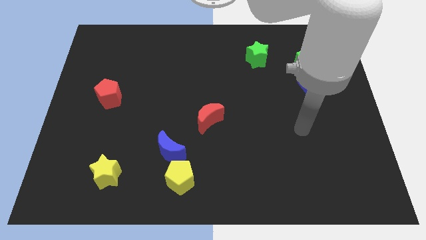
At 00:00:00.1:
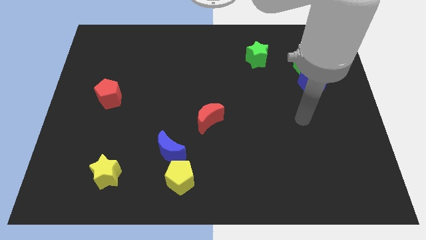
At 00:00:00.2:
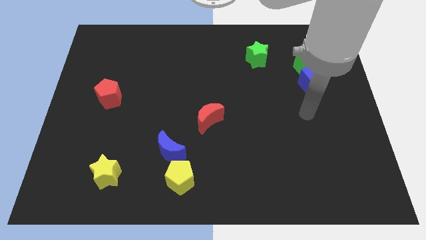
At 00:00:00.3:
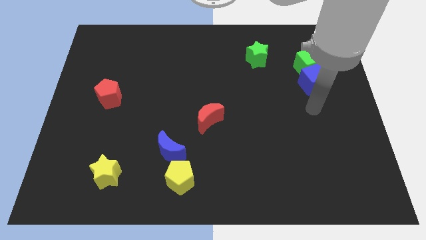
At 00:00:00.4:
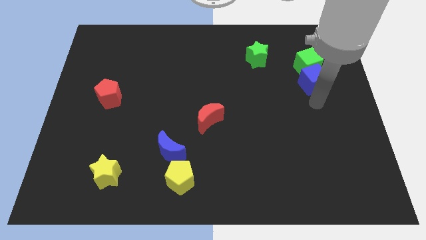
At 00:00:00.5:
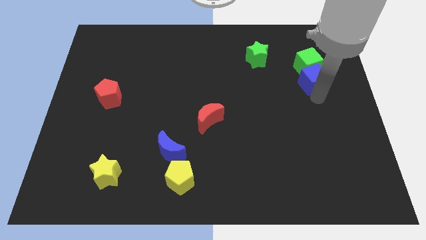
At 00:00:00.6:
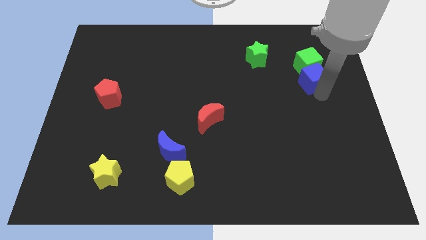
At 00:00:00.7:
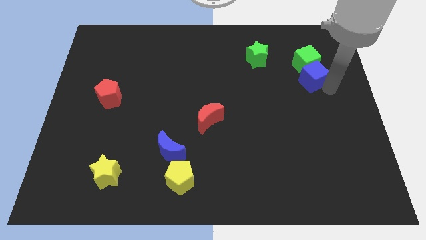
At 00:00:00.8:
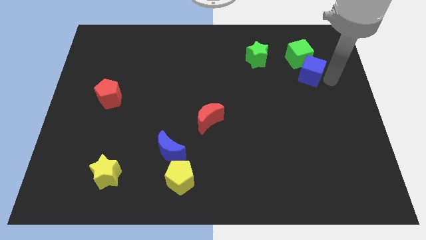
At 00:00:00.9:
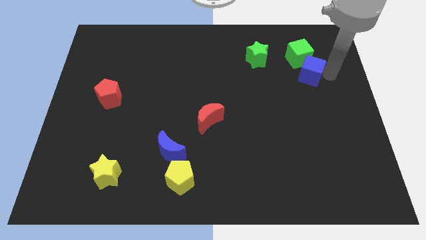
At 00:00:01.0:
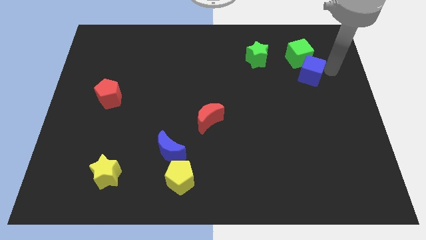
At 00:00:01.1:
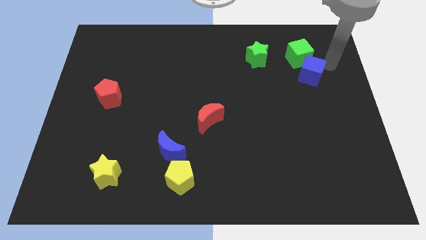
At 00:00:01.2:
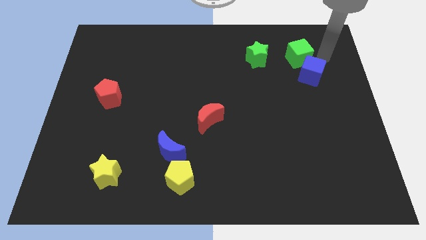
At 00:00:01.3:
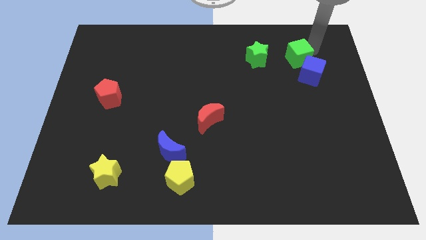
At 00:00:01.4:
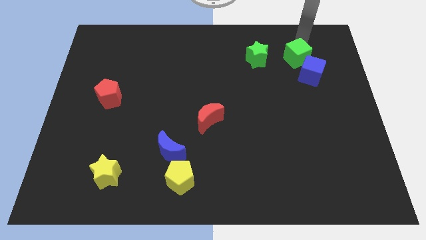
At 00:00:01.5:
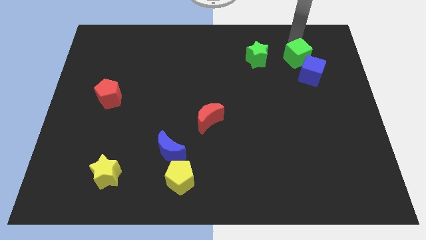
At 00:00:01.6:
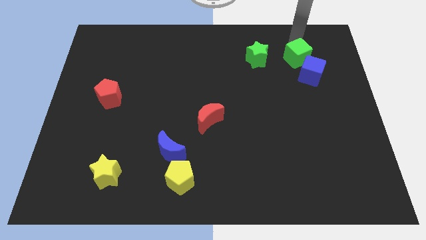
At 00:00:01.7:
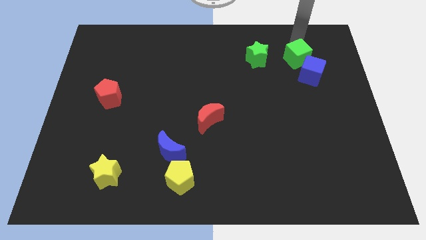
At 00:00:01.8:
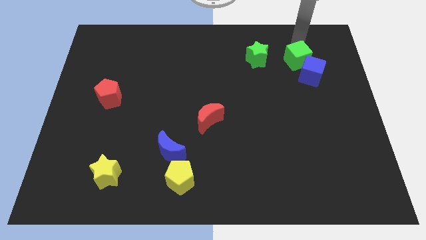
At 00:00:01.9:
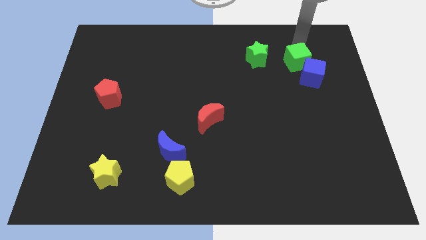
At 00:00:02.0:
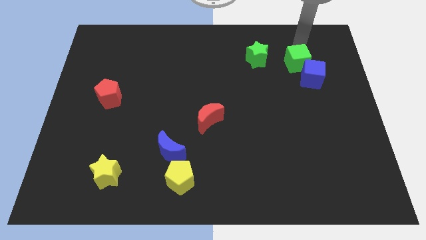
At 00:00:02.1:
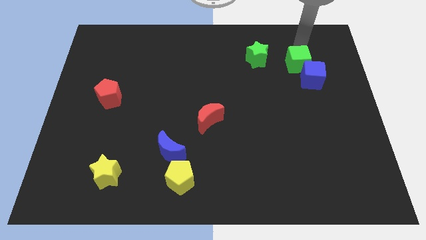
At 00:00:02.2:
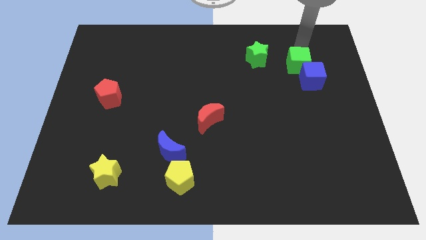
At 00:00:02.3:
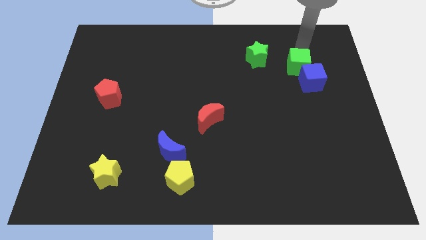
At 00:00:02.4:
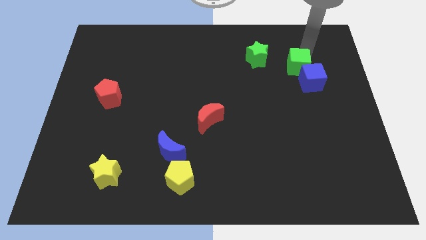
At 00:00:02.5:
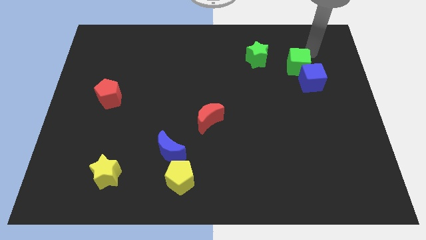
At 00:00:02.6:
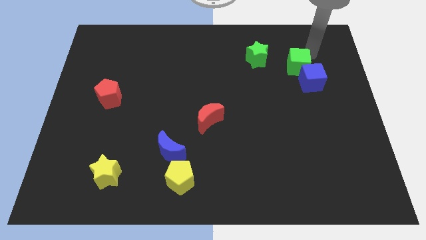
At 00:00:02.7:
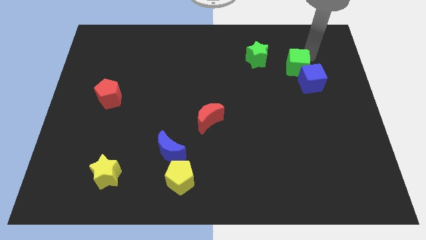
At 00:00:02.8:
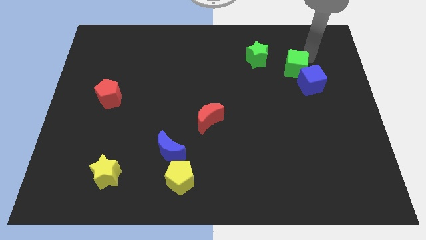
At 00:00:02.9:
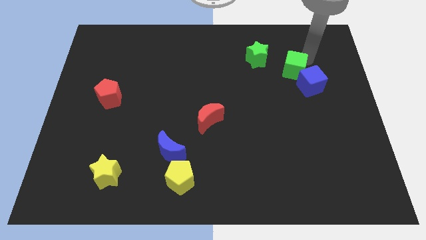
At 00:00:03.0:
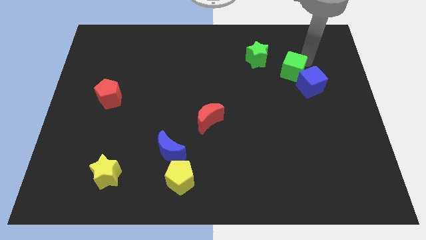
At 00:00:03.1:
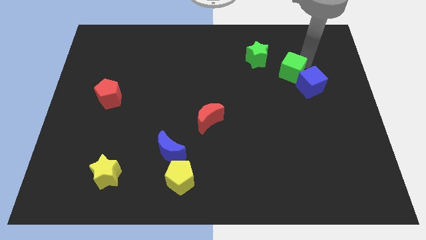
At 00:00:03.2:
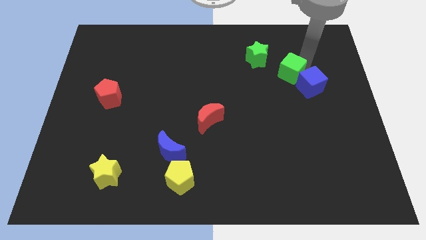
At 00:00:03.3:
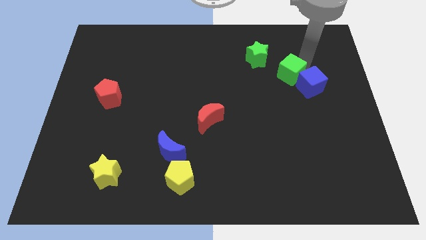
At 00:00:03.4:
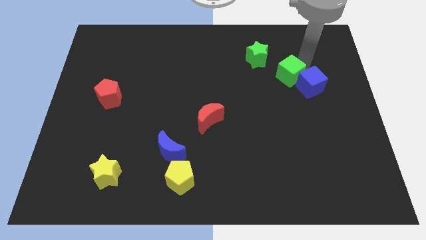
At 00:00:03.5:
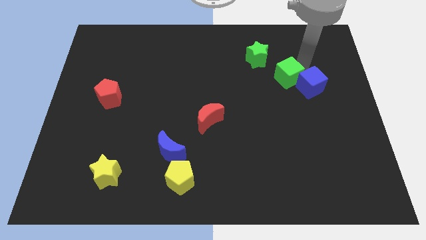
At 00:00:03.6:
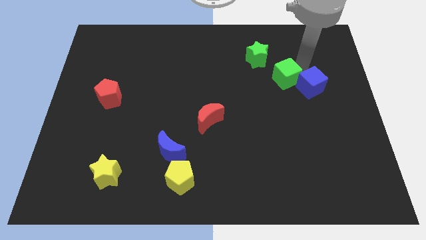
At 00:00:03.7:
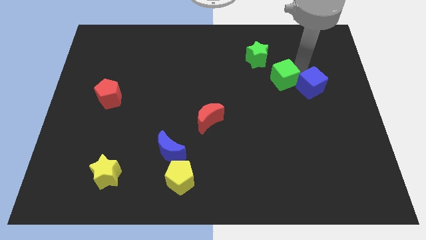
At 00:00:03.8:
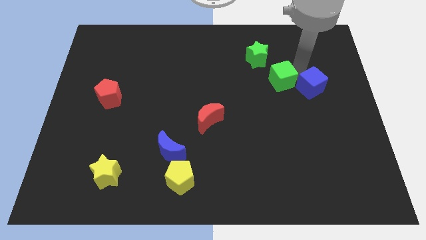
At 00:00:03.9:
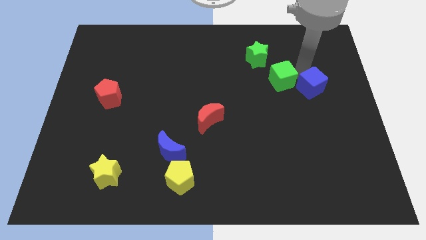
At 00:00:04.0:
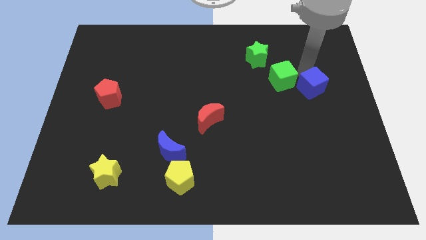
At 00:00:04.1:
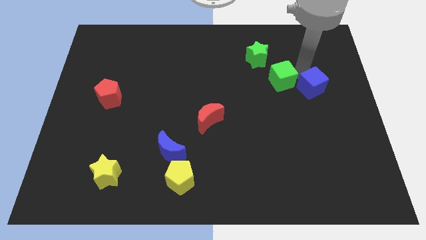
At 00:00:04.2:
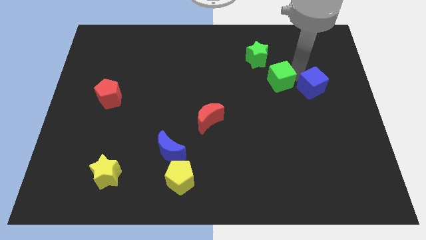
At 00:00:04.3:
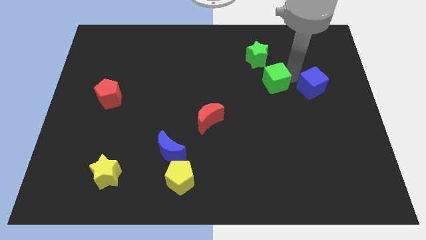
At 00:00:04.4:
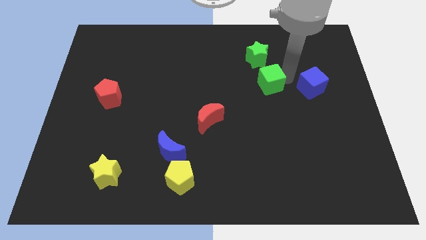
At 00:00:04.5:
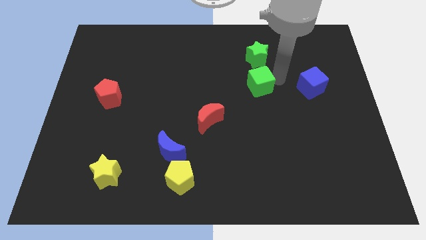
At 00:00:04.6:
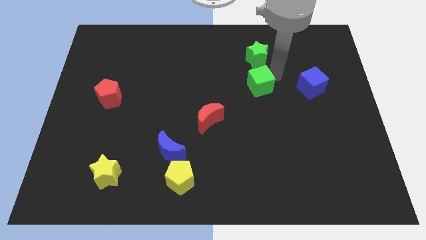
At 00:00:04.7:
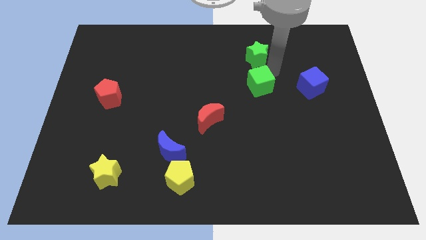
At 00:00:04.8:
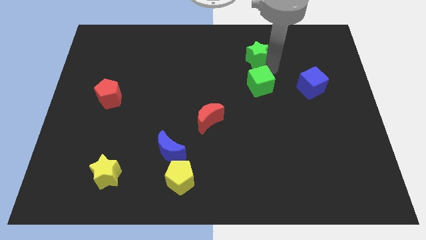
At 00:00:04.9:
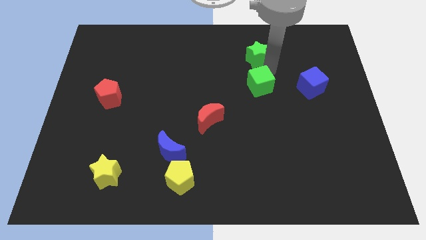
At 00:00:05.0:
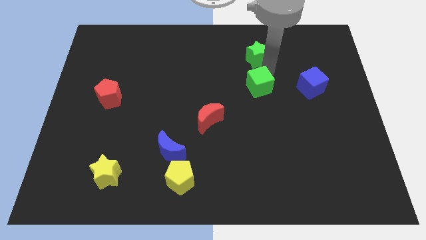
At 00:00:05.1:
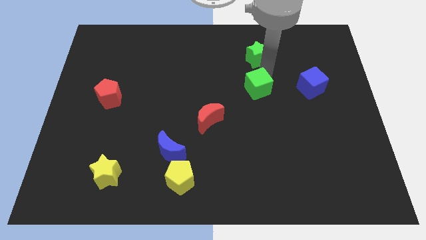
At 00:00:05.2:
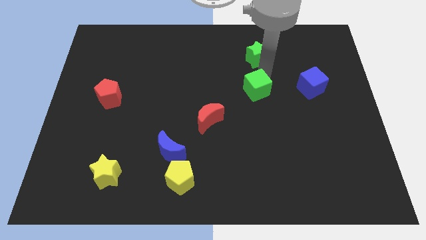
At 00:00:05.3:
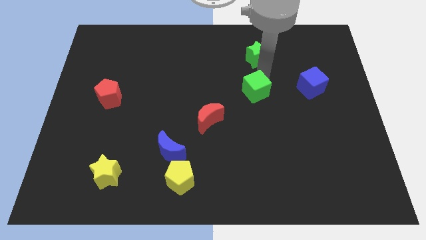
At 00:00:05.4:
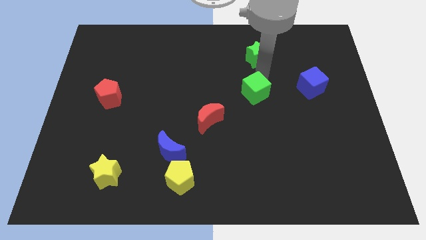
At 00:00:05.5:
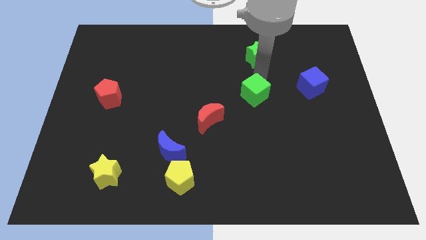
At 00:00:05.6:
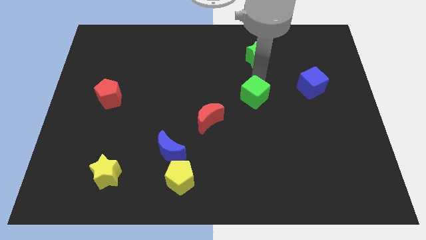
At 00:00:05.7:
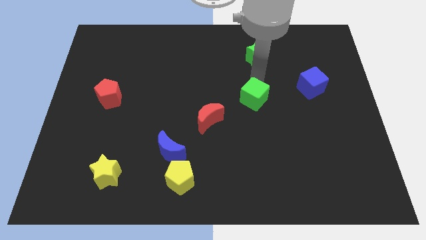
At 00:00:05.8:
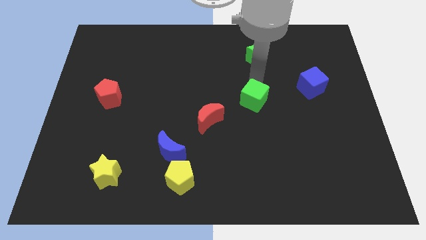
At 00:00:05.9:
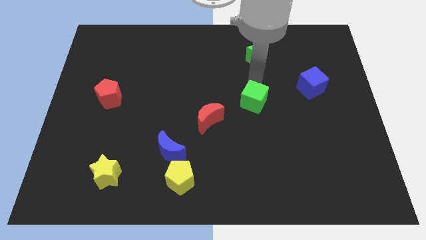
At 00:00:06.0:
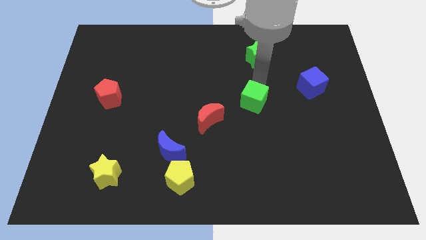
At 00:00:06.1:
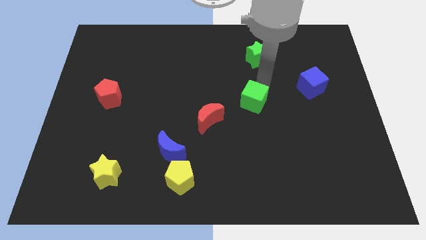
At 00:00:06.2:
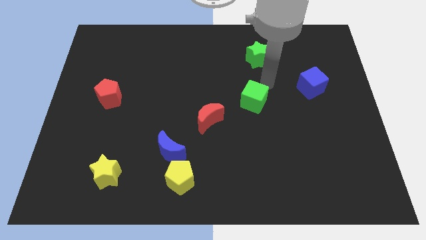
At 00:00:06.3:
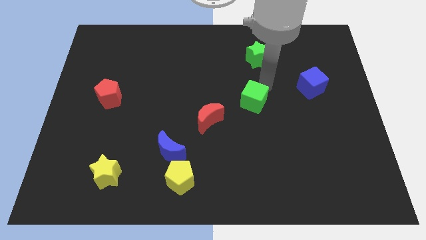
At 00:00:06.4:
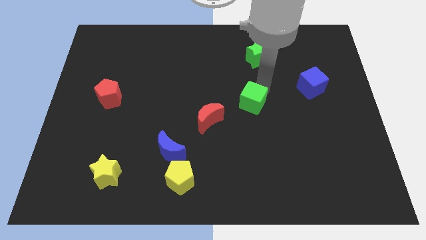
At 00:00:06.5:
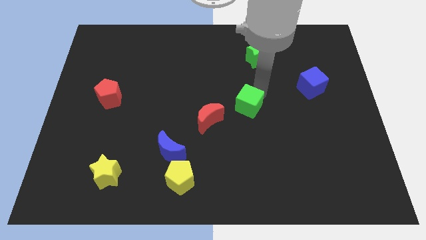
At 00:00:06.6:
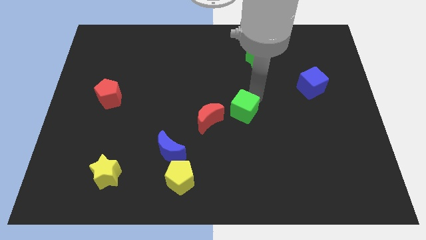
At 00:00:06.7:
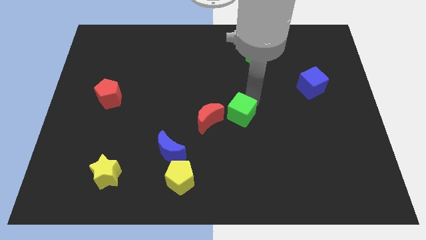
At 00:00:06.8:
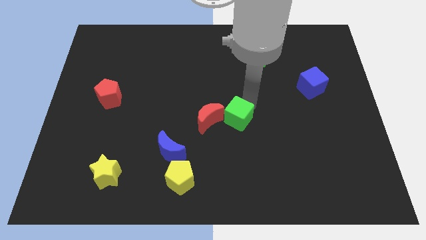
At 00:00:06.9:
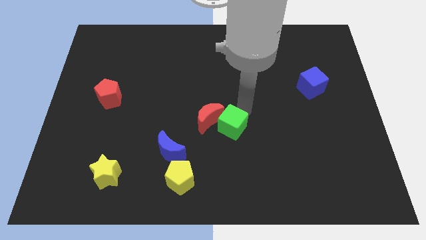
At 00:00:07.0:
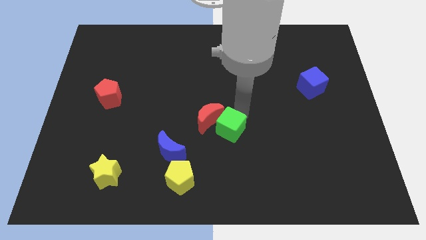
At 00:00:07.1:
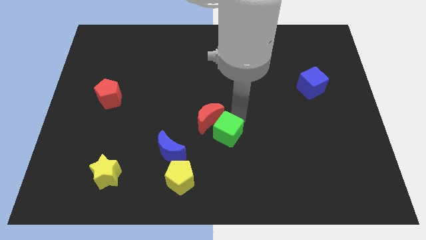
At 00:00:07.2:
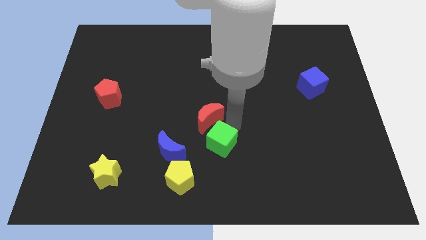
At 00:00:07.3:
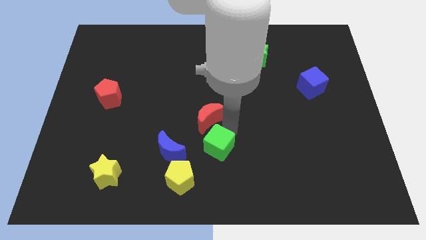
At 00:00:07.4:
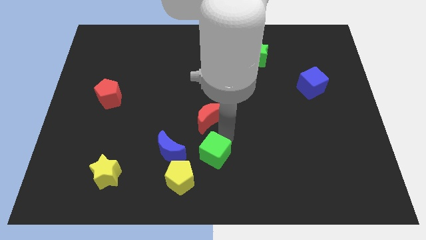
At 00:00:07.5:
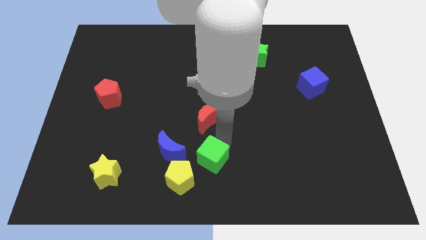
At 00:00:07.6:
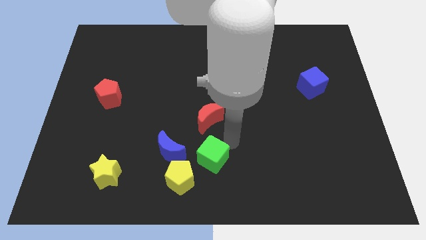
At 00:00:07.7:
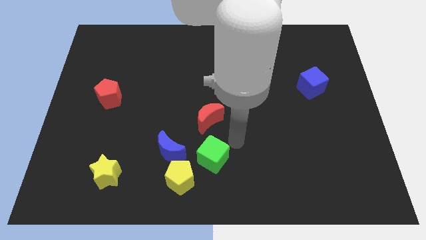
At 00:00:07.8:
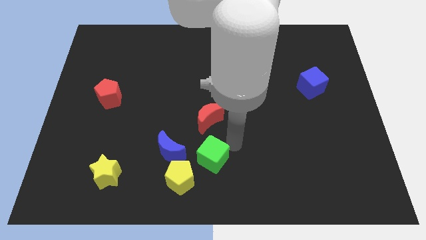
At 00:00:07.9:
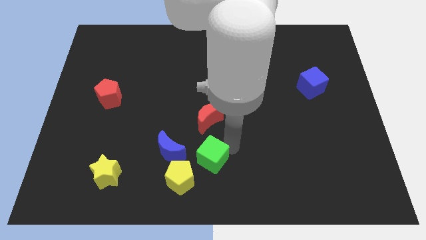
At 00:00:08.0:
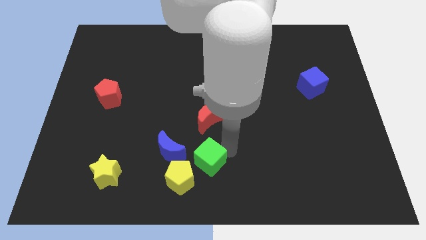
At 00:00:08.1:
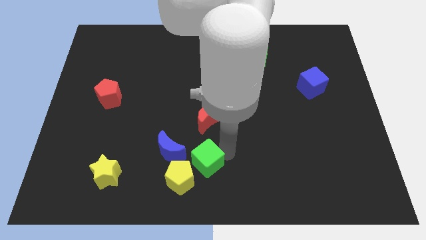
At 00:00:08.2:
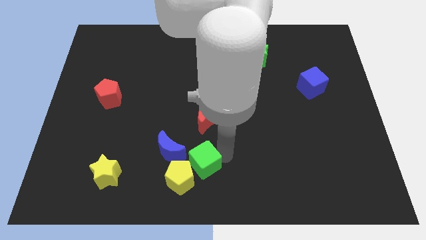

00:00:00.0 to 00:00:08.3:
put the green cube towards the yellow pentagon
